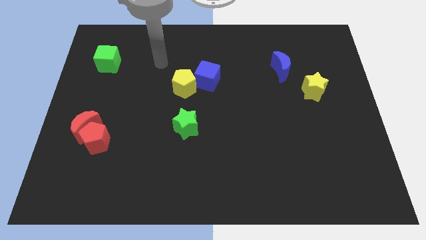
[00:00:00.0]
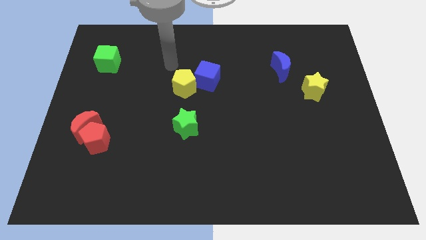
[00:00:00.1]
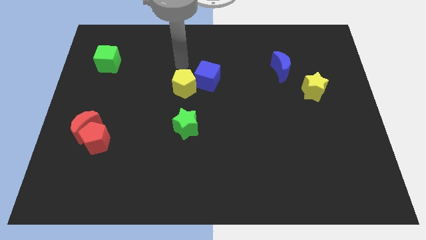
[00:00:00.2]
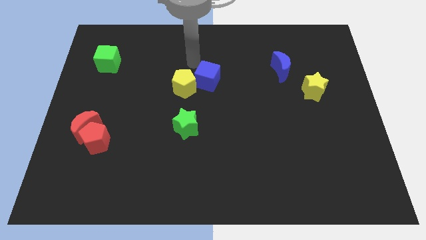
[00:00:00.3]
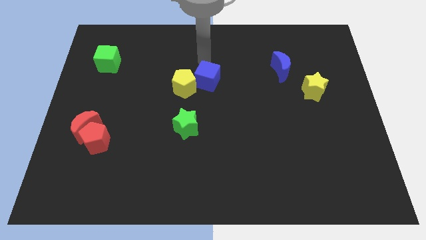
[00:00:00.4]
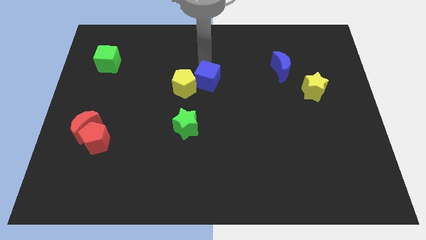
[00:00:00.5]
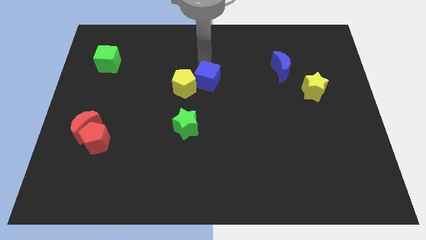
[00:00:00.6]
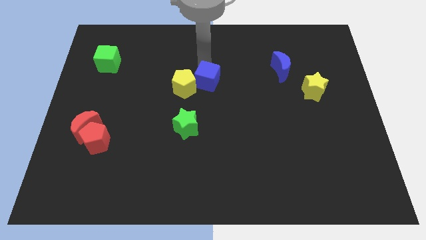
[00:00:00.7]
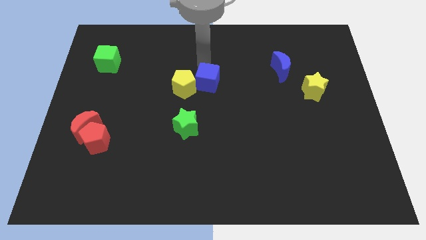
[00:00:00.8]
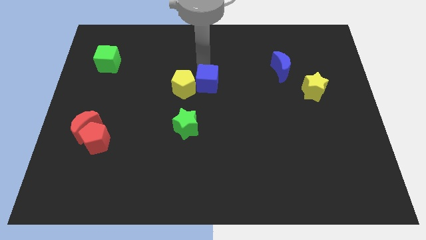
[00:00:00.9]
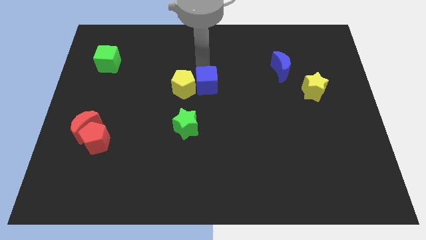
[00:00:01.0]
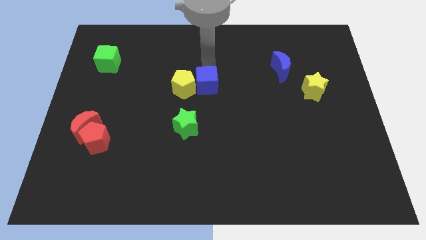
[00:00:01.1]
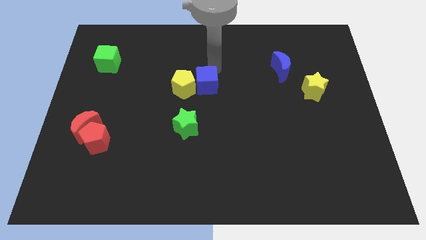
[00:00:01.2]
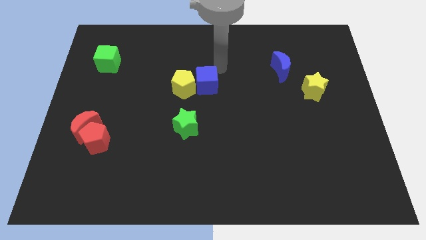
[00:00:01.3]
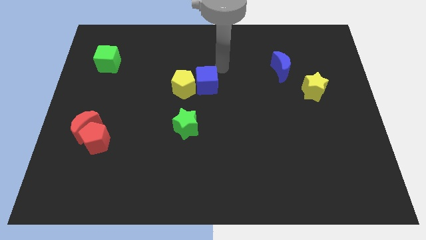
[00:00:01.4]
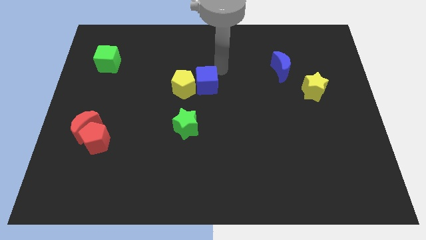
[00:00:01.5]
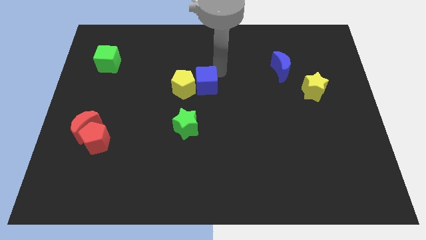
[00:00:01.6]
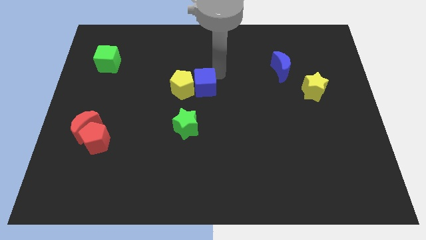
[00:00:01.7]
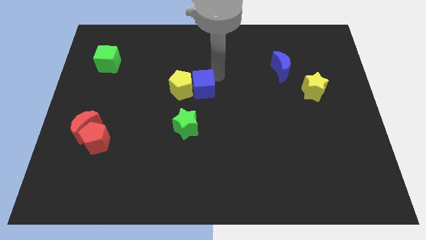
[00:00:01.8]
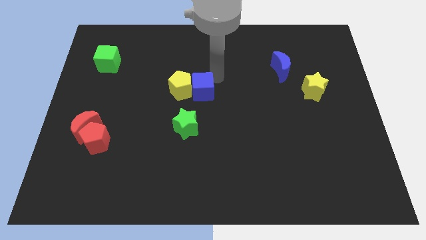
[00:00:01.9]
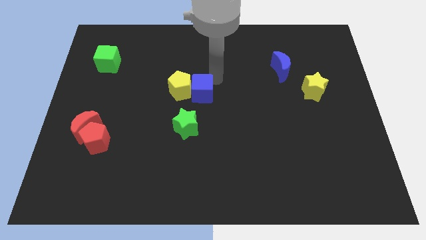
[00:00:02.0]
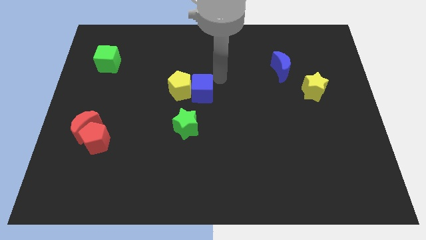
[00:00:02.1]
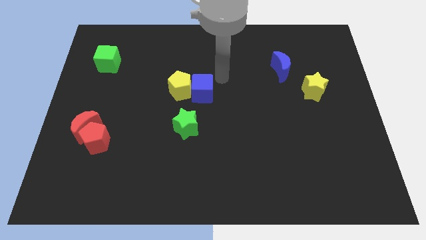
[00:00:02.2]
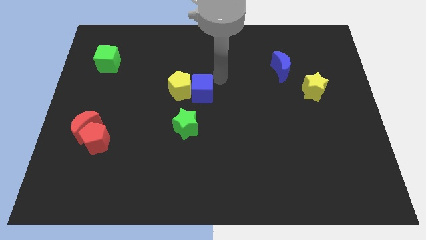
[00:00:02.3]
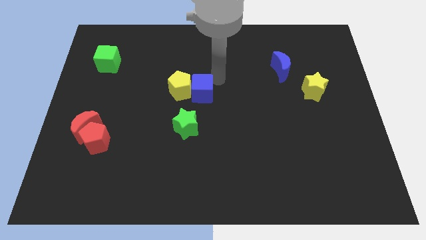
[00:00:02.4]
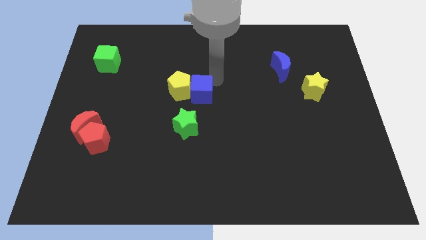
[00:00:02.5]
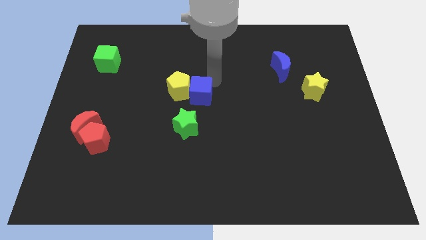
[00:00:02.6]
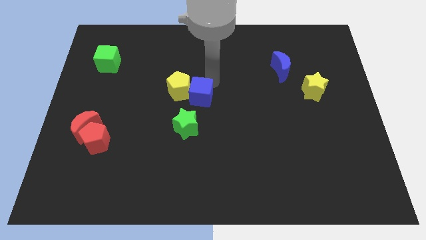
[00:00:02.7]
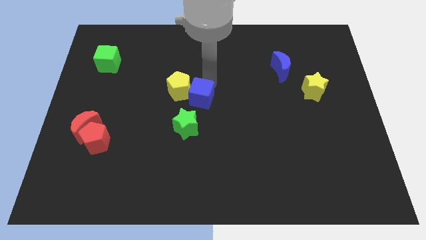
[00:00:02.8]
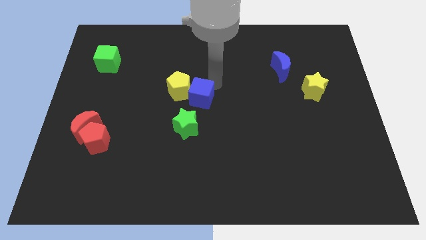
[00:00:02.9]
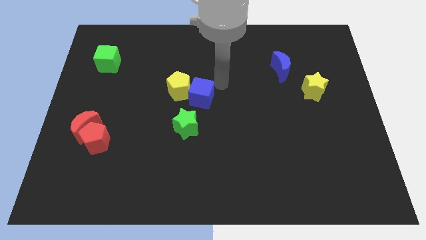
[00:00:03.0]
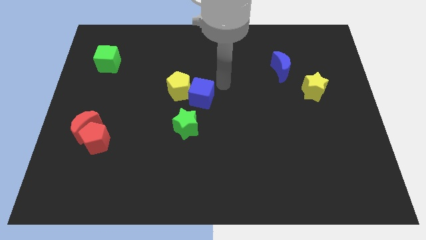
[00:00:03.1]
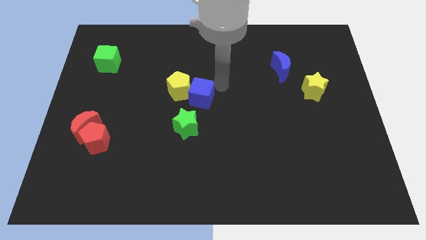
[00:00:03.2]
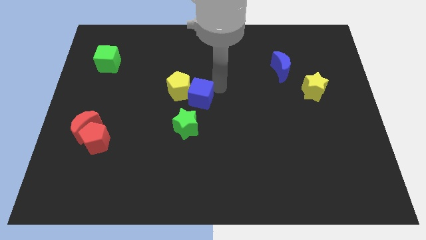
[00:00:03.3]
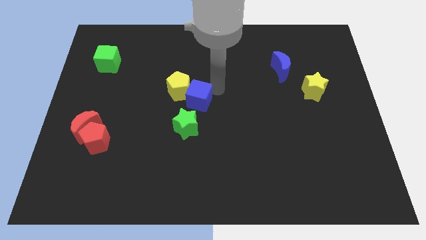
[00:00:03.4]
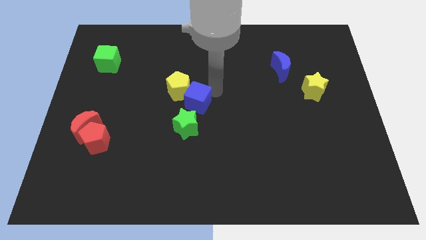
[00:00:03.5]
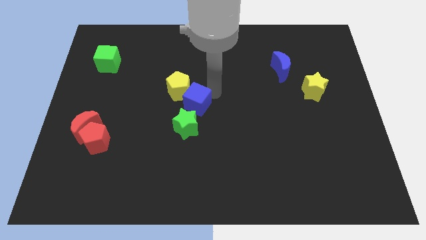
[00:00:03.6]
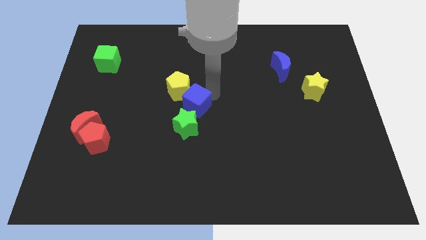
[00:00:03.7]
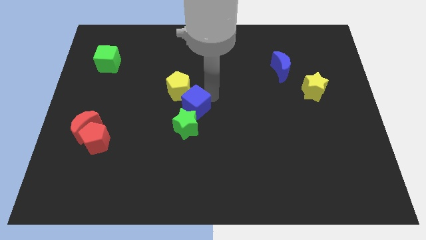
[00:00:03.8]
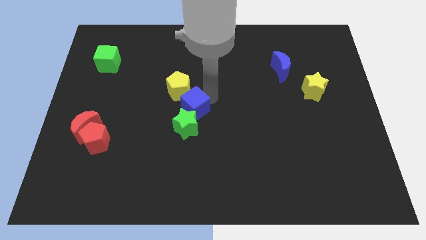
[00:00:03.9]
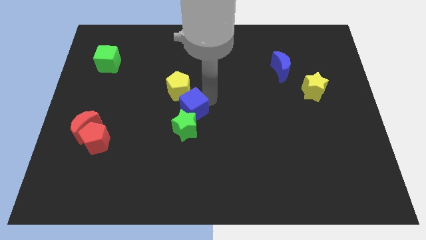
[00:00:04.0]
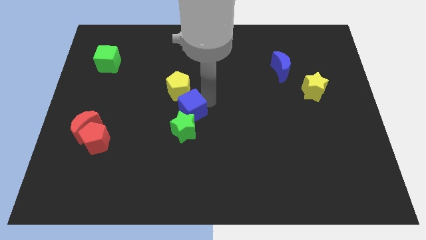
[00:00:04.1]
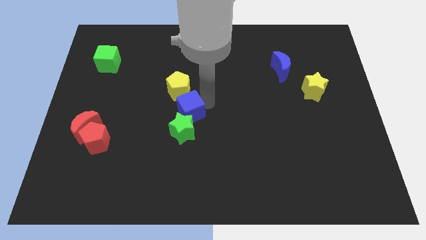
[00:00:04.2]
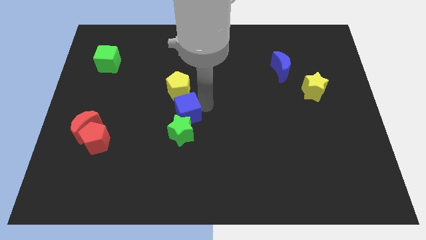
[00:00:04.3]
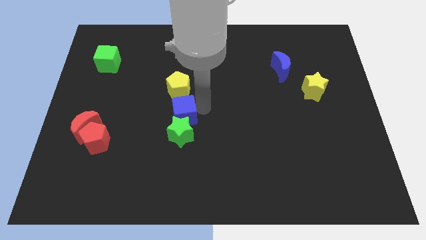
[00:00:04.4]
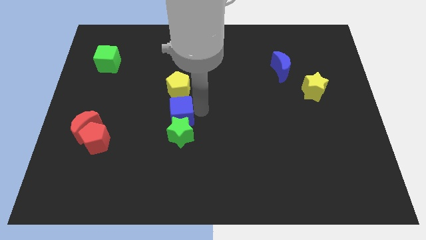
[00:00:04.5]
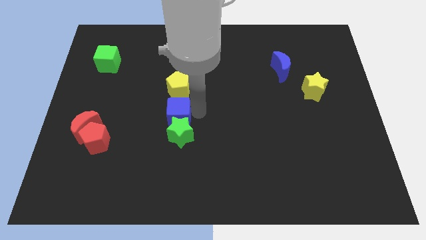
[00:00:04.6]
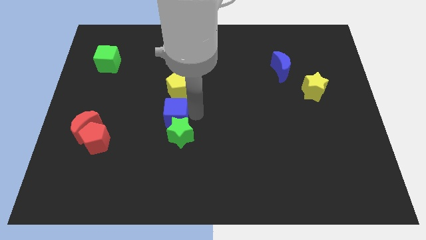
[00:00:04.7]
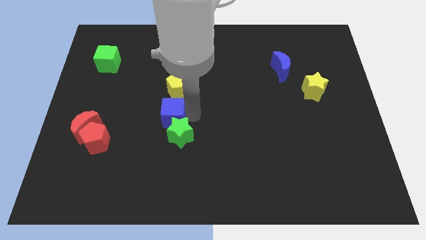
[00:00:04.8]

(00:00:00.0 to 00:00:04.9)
put the blue cube to the bottom left side of the yellow pentagon

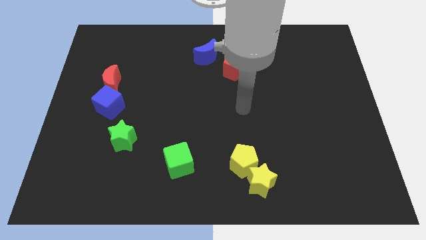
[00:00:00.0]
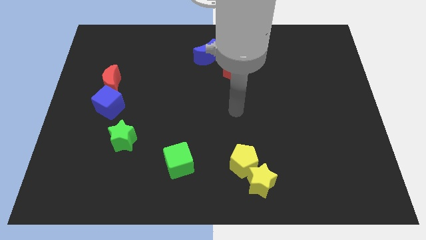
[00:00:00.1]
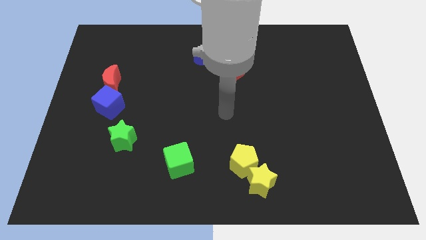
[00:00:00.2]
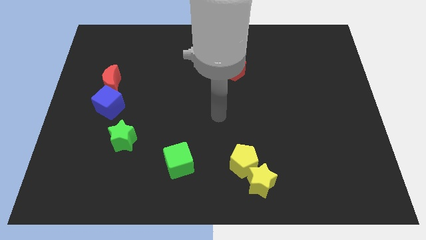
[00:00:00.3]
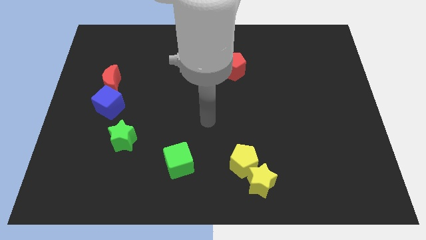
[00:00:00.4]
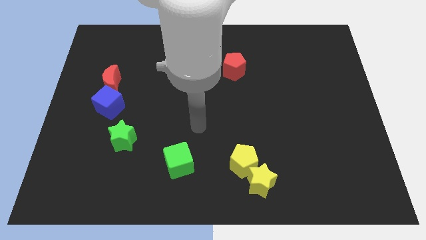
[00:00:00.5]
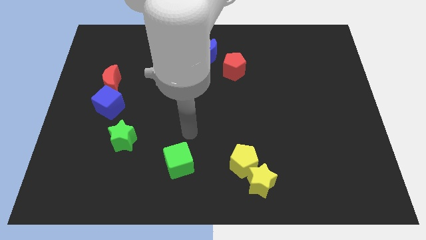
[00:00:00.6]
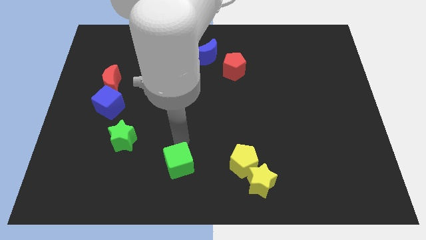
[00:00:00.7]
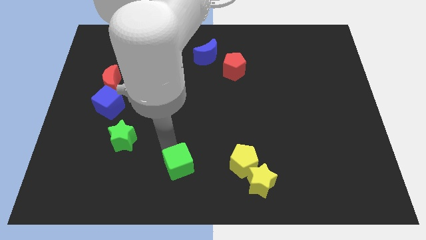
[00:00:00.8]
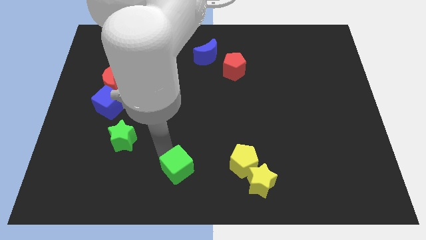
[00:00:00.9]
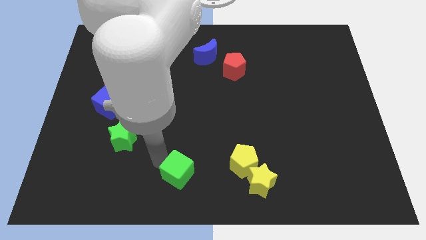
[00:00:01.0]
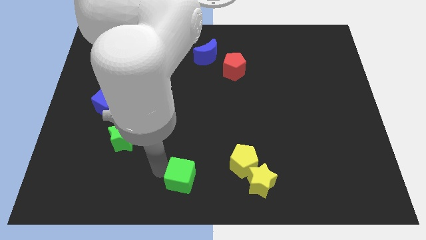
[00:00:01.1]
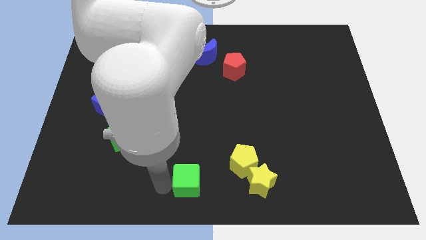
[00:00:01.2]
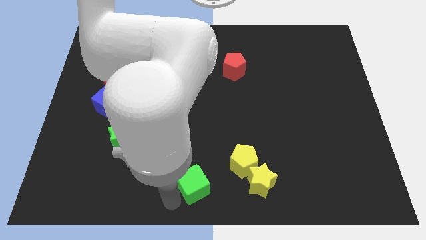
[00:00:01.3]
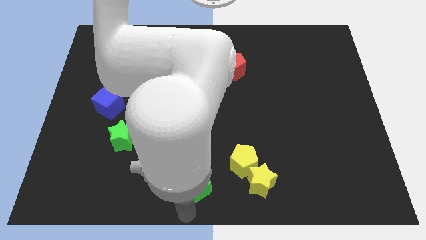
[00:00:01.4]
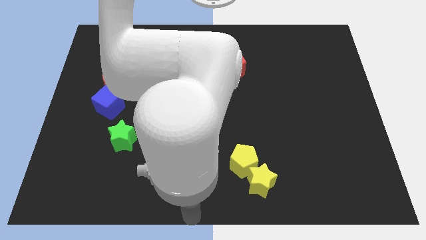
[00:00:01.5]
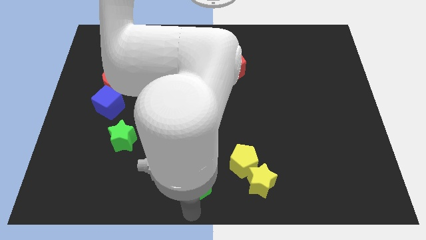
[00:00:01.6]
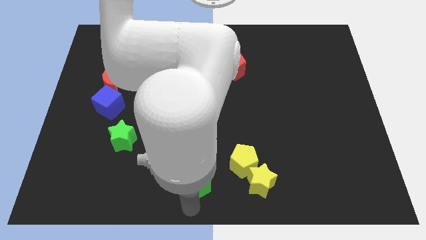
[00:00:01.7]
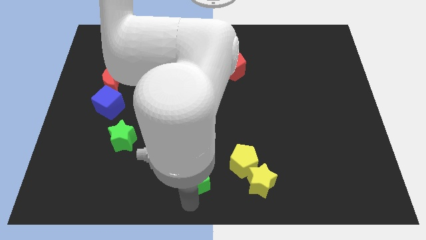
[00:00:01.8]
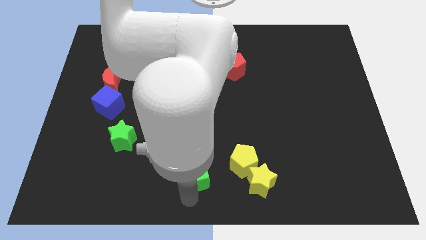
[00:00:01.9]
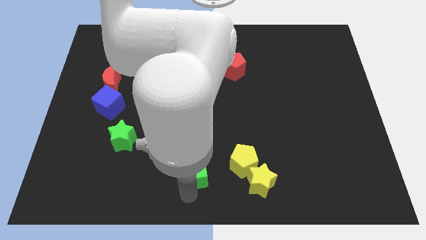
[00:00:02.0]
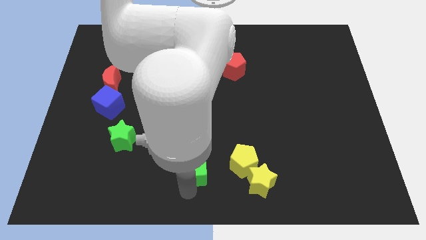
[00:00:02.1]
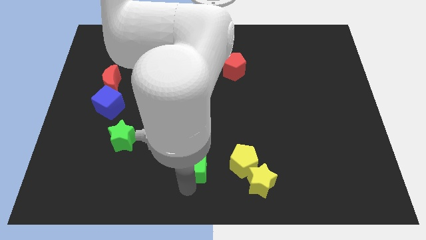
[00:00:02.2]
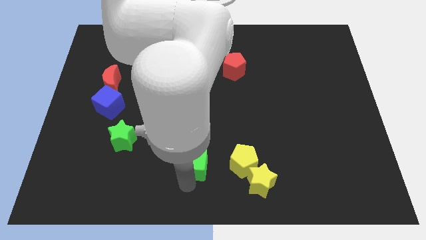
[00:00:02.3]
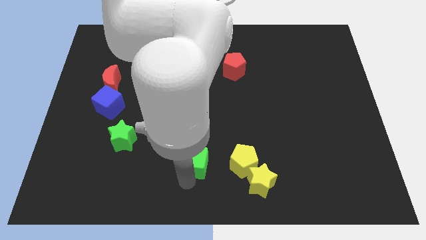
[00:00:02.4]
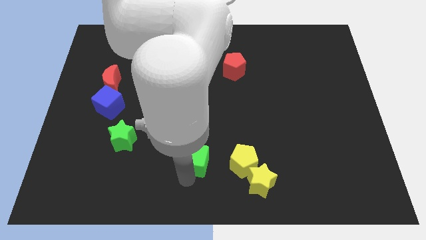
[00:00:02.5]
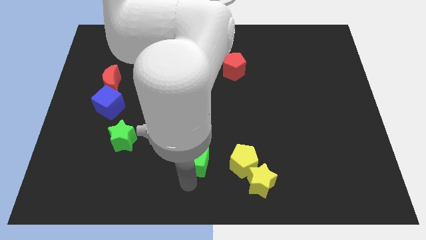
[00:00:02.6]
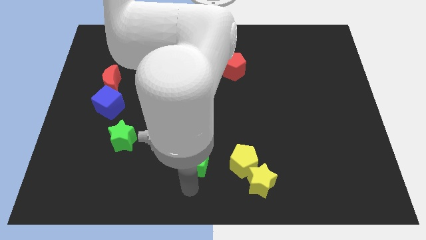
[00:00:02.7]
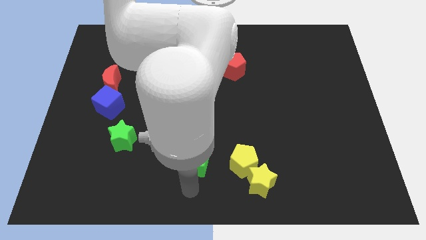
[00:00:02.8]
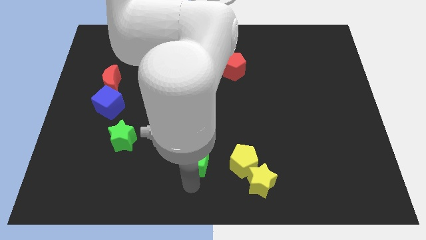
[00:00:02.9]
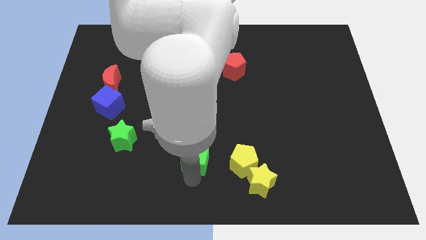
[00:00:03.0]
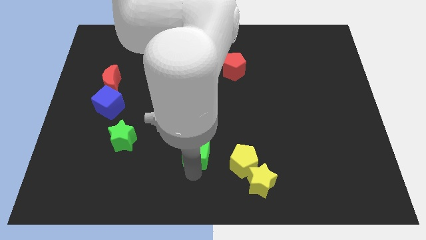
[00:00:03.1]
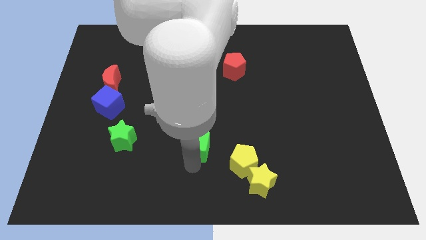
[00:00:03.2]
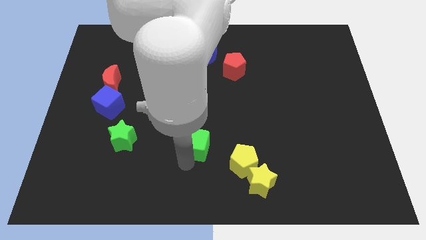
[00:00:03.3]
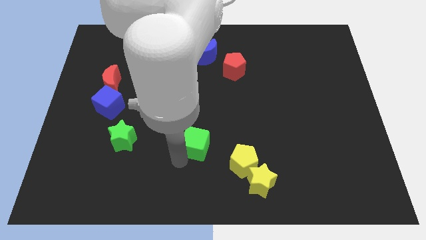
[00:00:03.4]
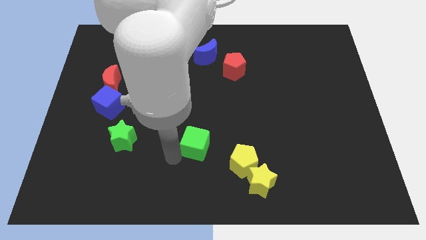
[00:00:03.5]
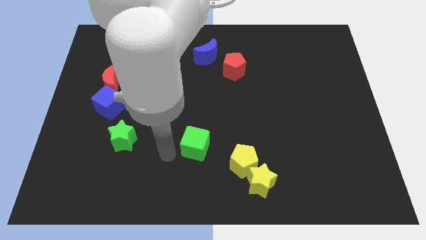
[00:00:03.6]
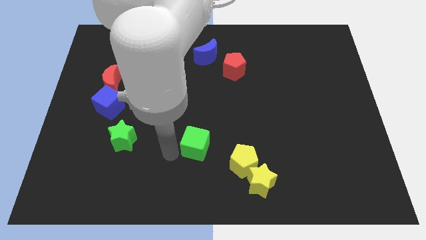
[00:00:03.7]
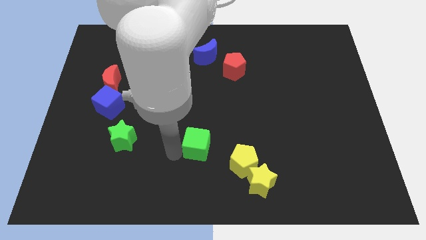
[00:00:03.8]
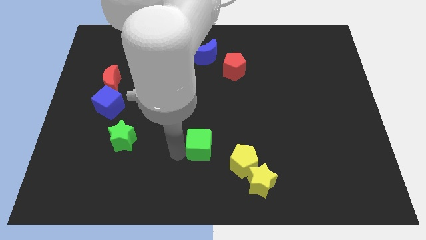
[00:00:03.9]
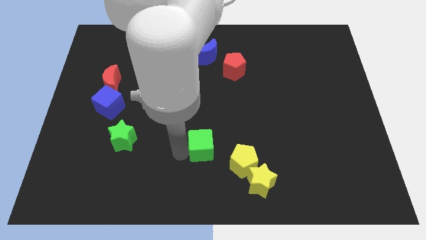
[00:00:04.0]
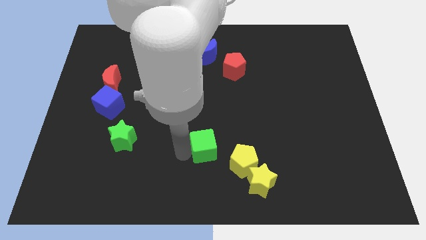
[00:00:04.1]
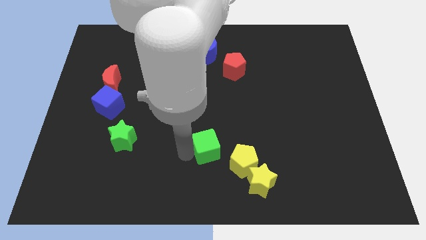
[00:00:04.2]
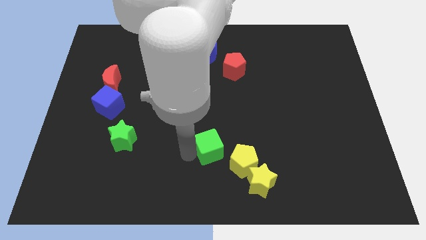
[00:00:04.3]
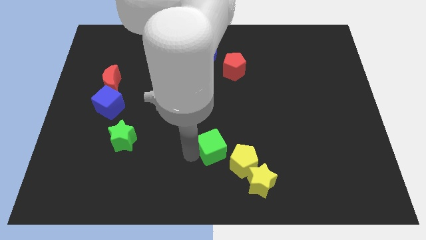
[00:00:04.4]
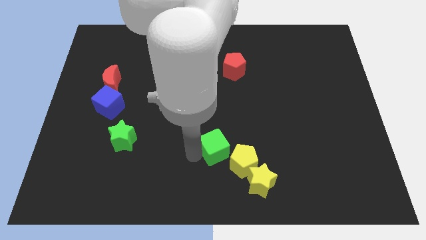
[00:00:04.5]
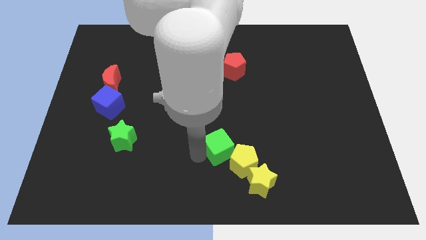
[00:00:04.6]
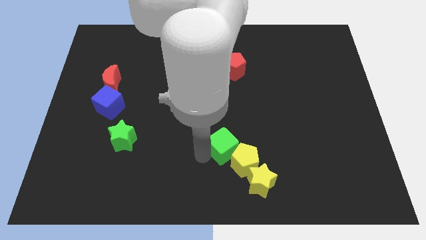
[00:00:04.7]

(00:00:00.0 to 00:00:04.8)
put the green cube above the yellow pentagon
